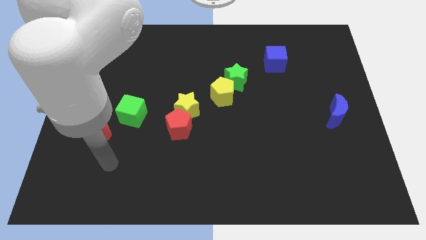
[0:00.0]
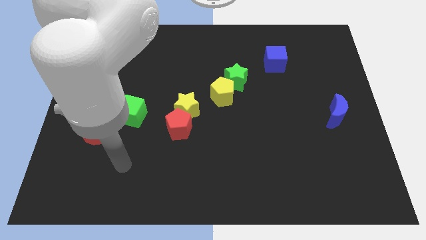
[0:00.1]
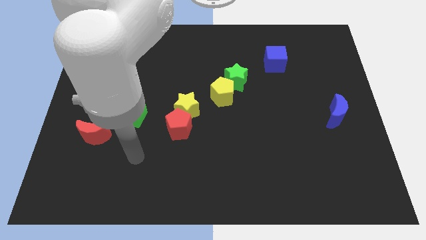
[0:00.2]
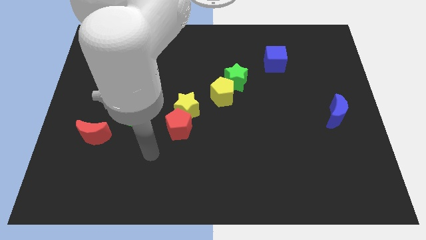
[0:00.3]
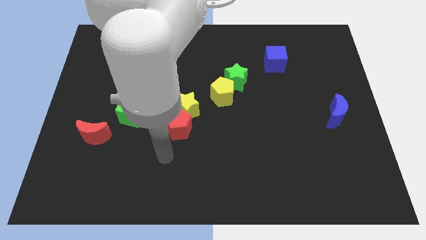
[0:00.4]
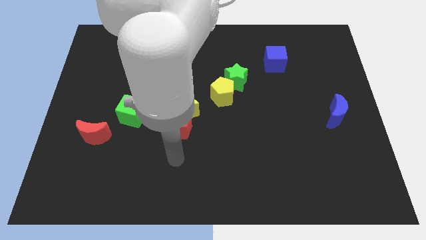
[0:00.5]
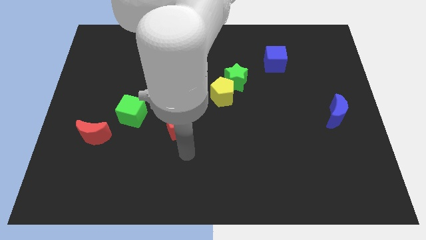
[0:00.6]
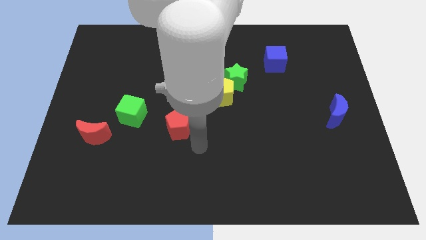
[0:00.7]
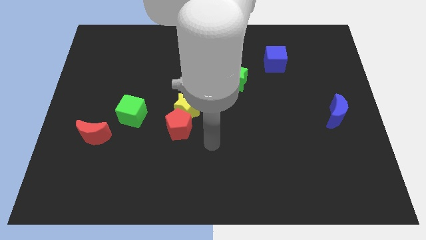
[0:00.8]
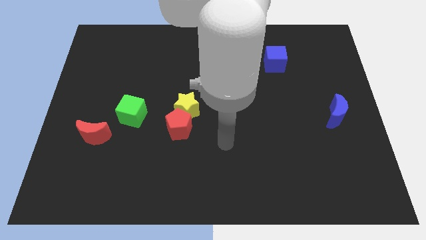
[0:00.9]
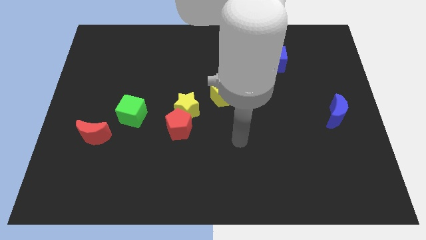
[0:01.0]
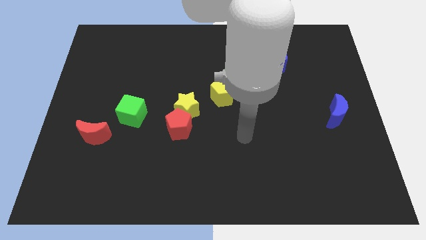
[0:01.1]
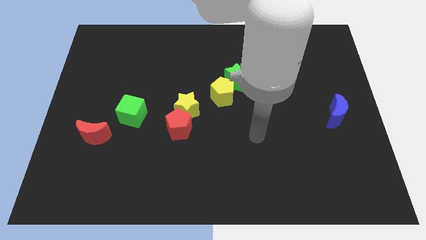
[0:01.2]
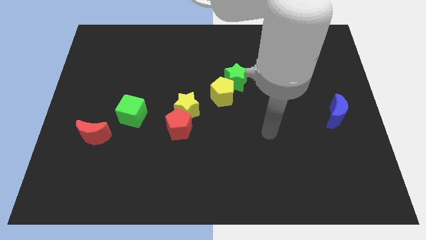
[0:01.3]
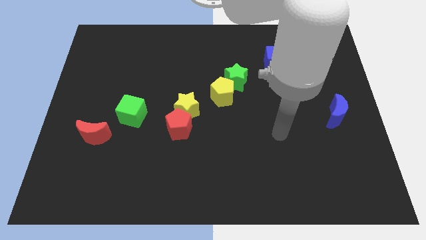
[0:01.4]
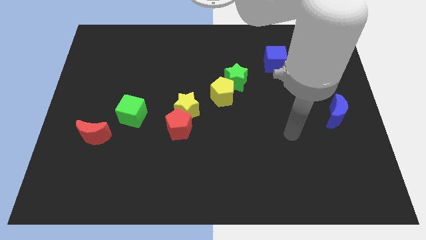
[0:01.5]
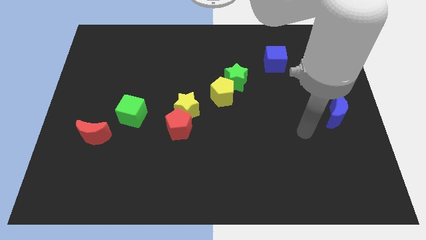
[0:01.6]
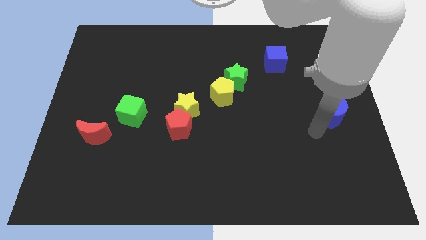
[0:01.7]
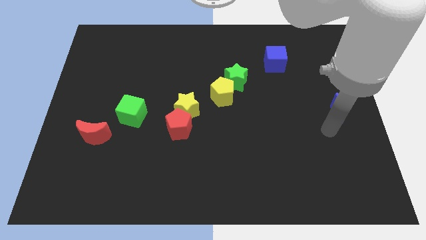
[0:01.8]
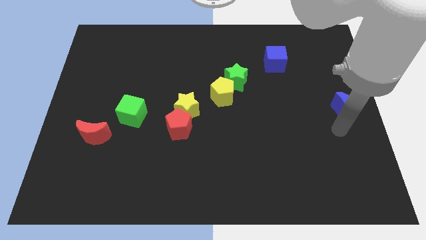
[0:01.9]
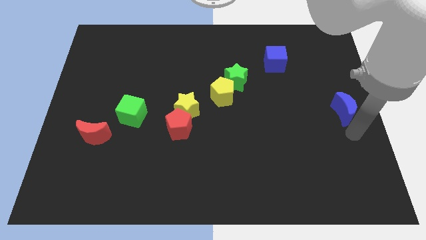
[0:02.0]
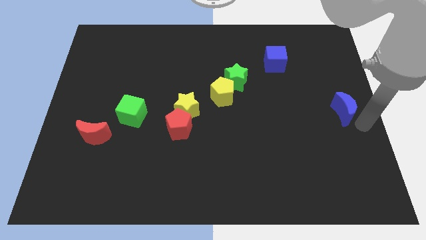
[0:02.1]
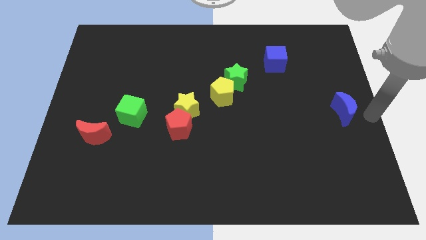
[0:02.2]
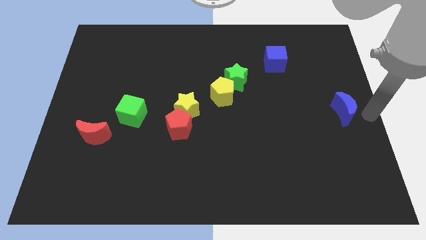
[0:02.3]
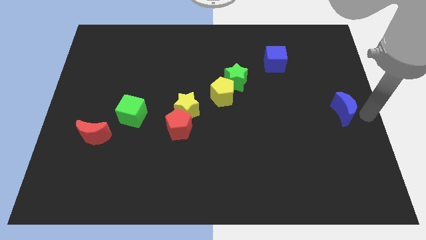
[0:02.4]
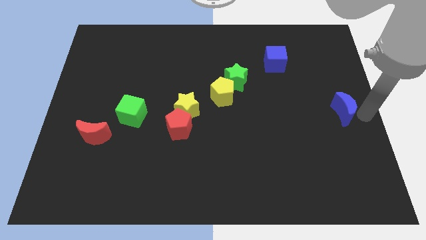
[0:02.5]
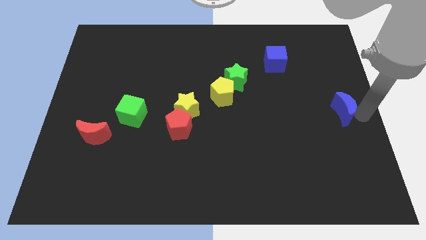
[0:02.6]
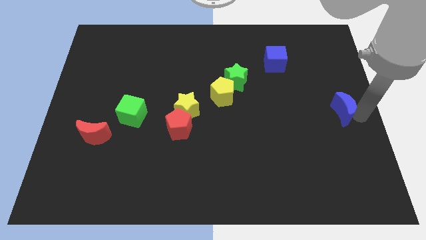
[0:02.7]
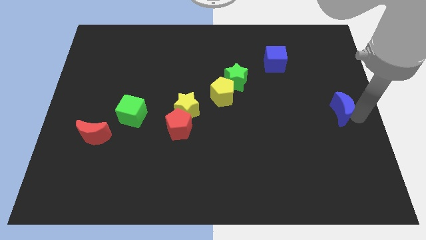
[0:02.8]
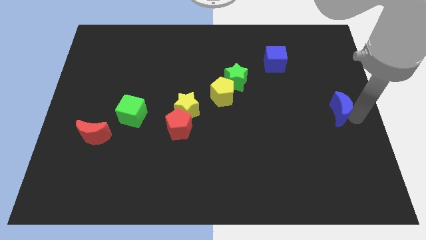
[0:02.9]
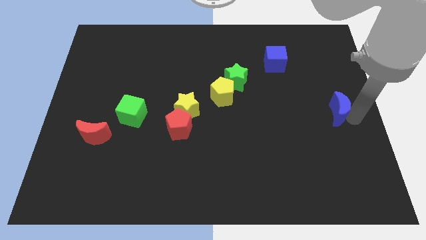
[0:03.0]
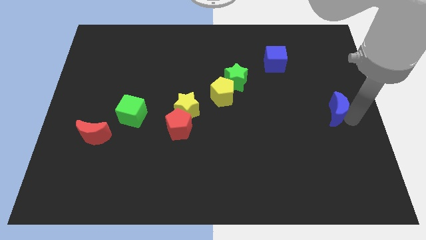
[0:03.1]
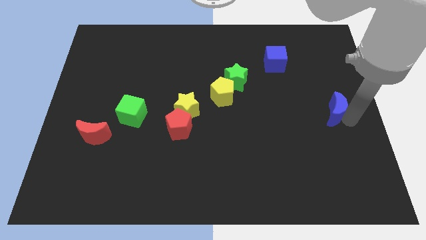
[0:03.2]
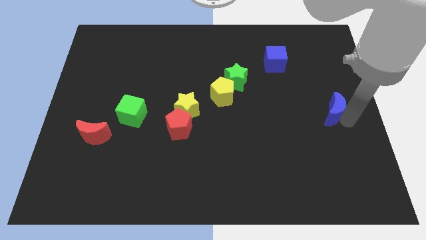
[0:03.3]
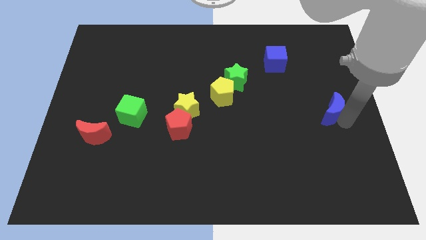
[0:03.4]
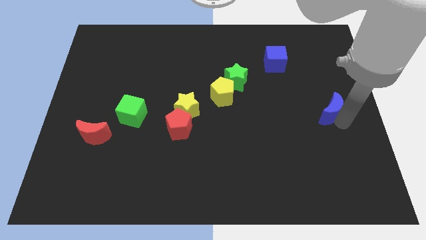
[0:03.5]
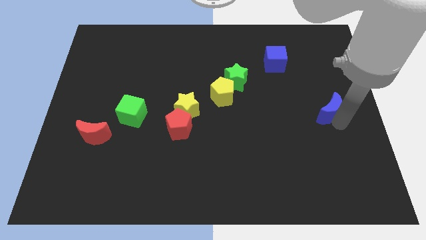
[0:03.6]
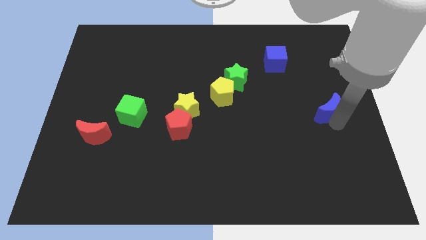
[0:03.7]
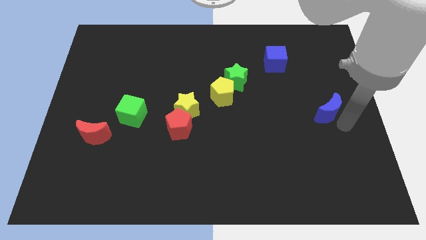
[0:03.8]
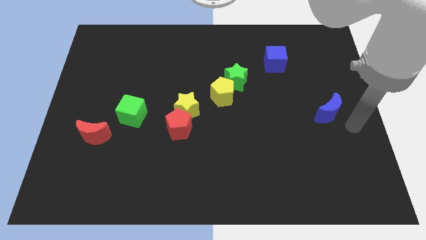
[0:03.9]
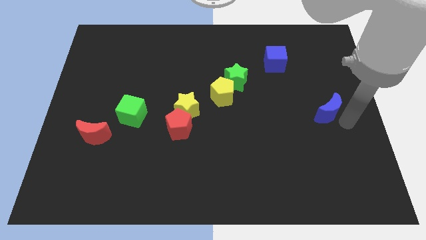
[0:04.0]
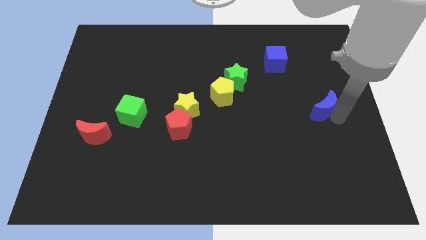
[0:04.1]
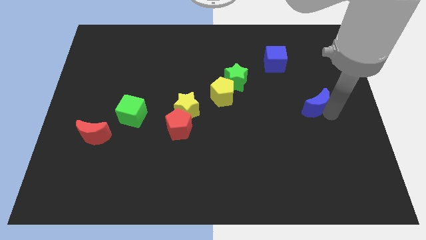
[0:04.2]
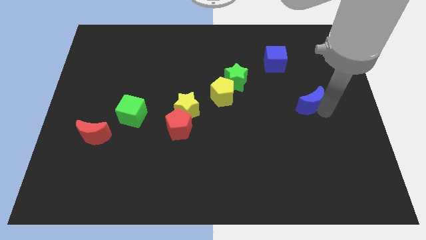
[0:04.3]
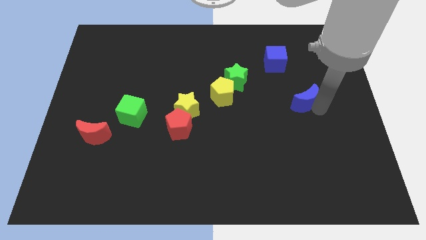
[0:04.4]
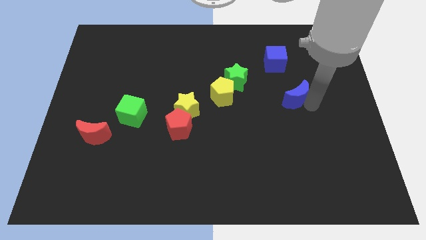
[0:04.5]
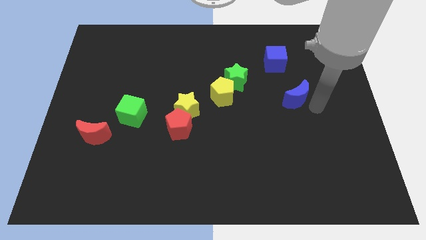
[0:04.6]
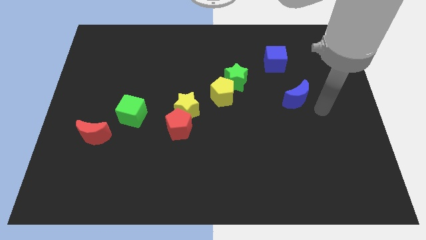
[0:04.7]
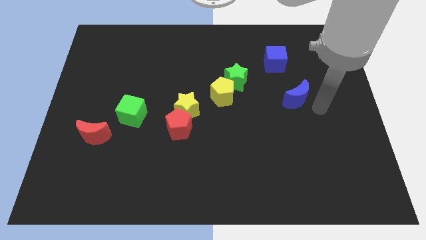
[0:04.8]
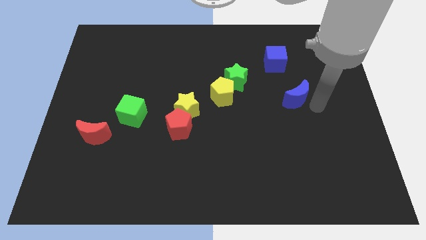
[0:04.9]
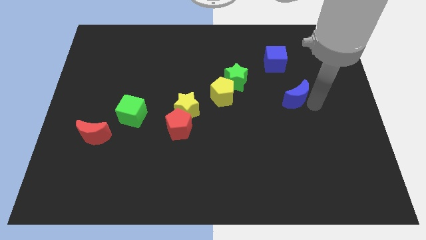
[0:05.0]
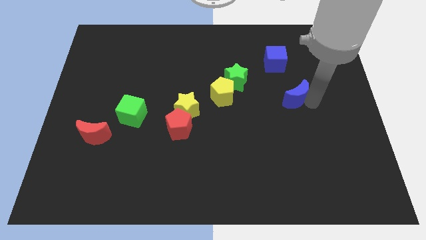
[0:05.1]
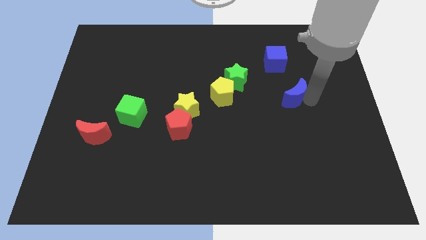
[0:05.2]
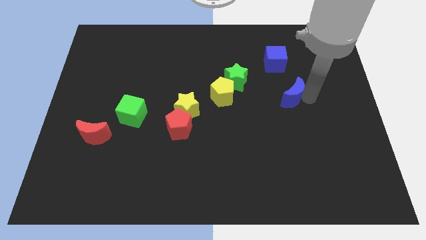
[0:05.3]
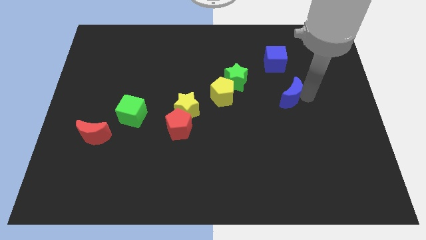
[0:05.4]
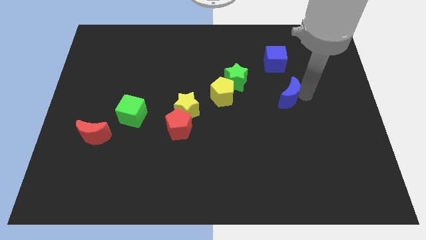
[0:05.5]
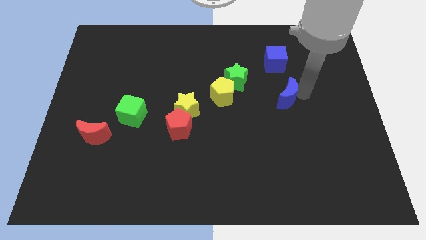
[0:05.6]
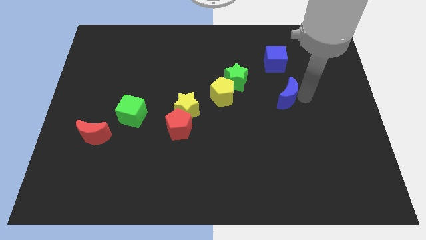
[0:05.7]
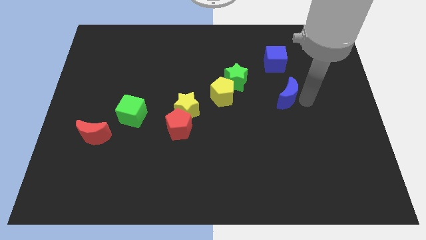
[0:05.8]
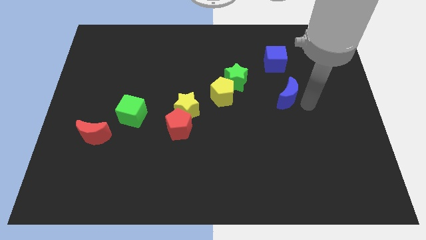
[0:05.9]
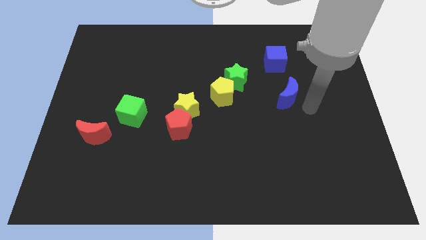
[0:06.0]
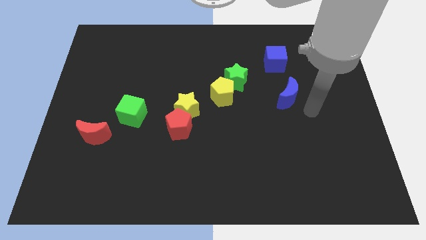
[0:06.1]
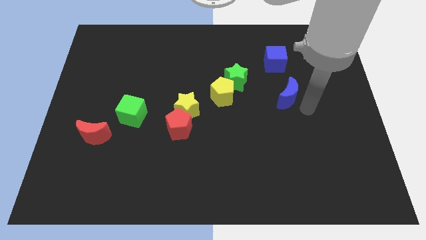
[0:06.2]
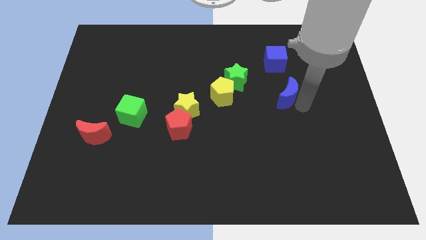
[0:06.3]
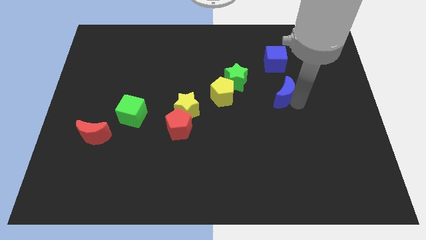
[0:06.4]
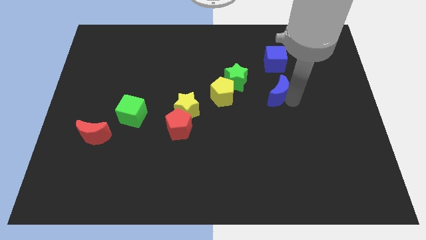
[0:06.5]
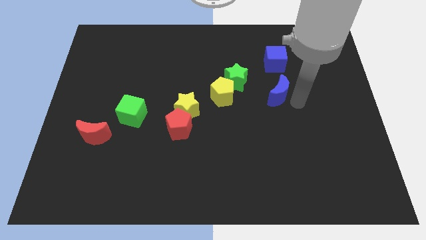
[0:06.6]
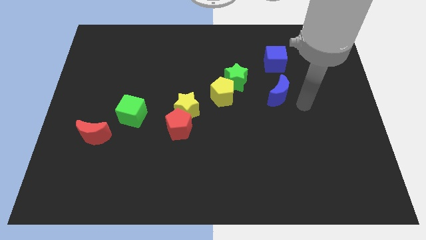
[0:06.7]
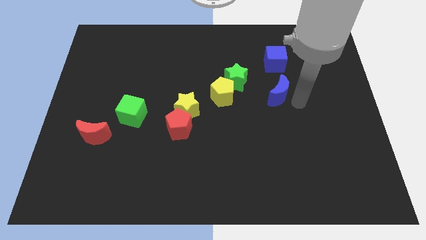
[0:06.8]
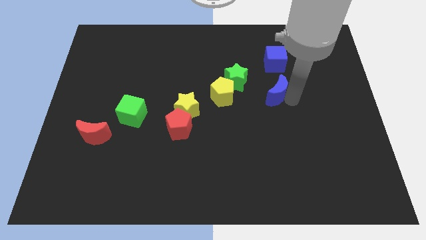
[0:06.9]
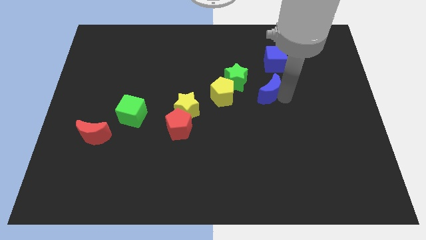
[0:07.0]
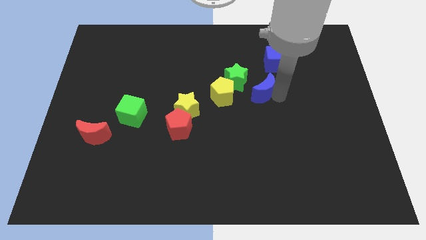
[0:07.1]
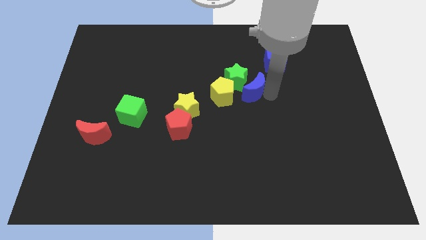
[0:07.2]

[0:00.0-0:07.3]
push the blue moon next to the green star
